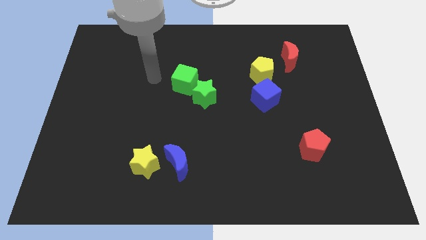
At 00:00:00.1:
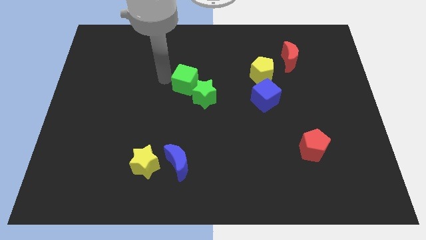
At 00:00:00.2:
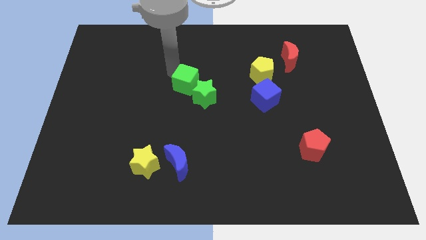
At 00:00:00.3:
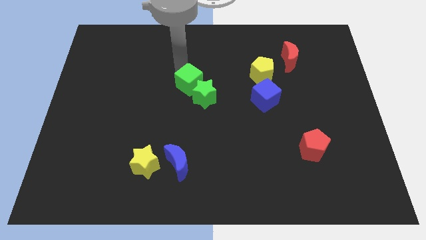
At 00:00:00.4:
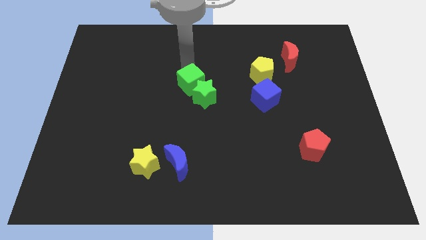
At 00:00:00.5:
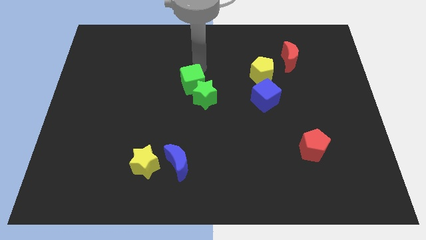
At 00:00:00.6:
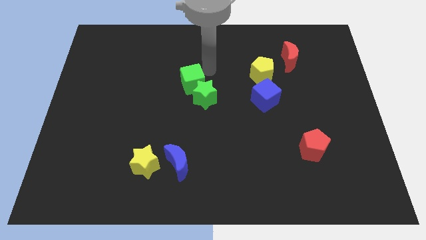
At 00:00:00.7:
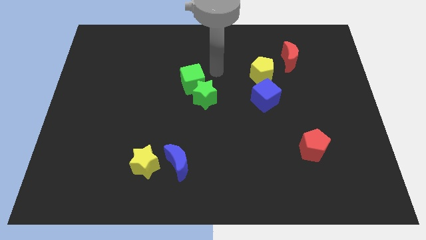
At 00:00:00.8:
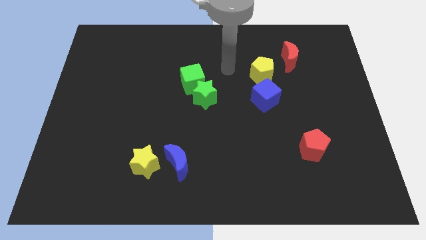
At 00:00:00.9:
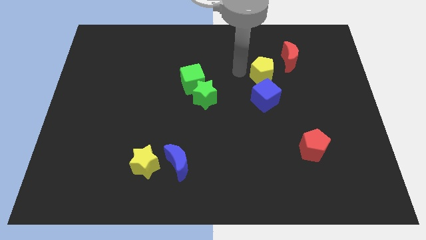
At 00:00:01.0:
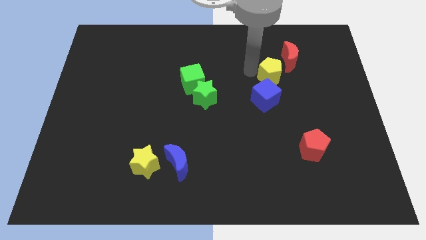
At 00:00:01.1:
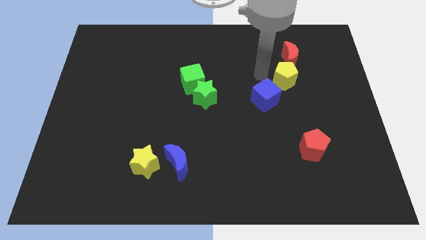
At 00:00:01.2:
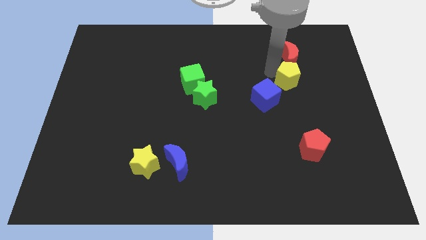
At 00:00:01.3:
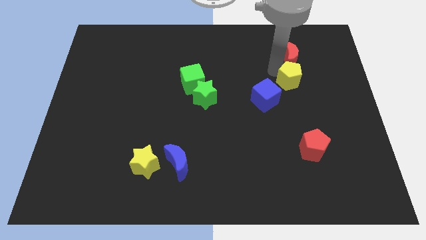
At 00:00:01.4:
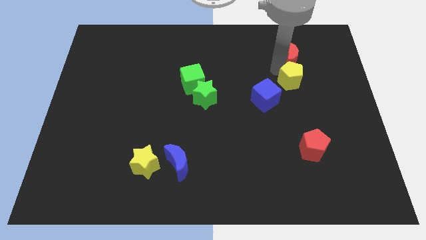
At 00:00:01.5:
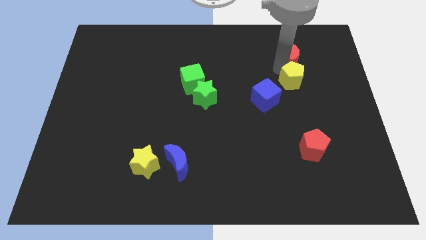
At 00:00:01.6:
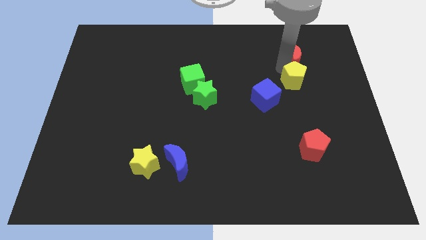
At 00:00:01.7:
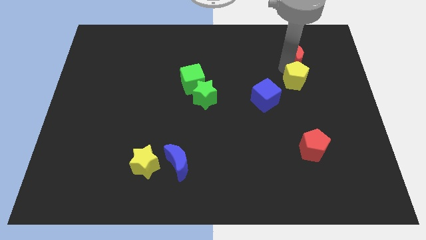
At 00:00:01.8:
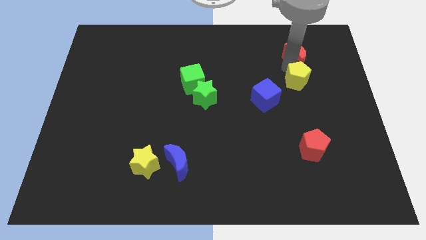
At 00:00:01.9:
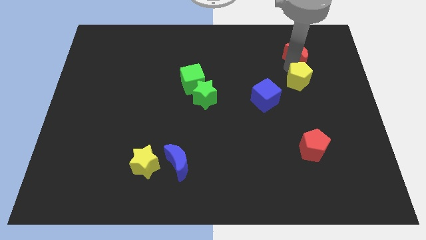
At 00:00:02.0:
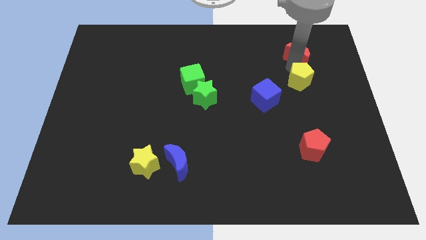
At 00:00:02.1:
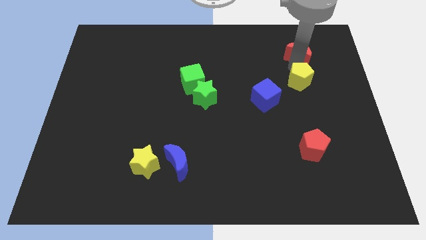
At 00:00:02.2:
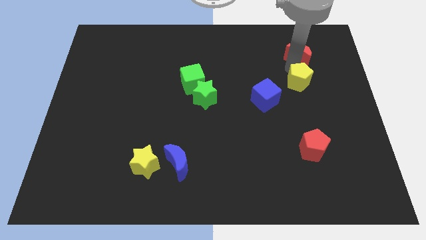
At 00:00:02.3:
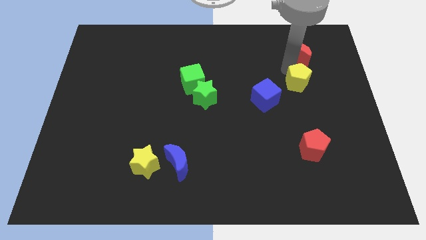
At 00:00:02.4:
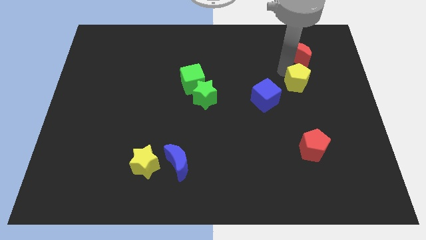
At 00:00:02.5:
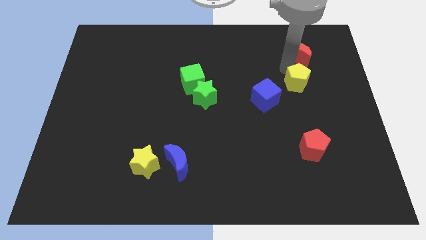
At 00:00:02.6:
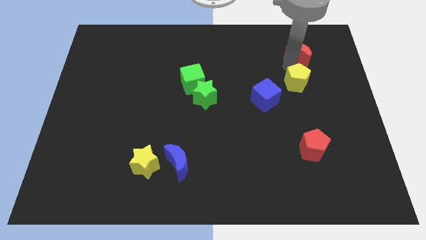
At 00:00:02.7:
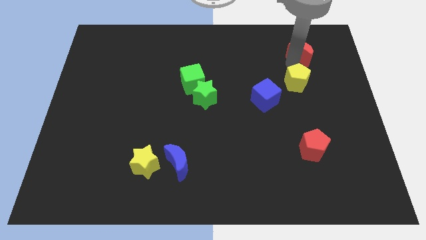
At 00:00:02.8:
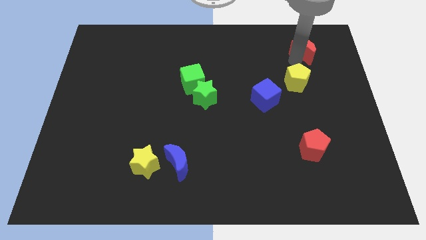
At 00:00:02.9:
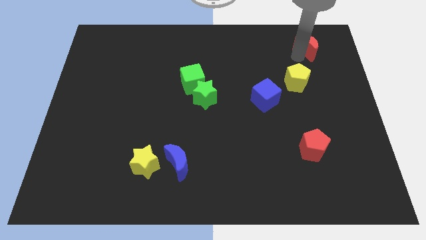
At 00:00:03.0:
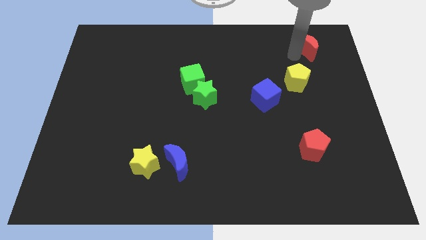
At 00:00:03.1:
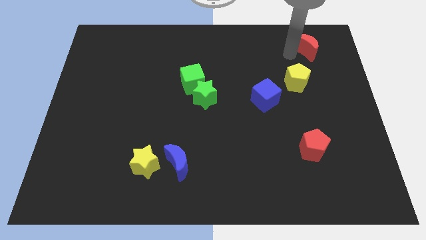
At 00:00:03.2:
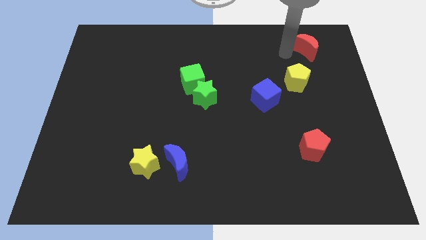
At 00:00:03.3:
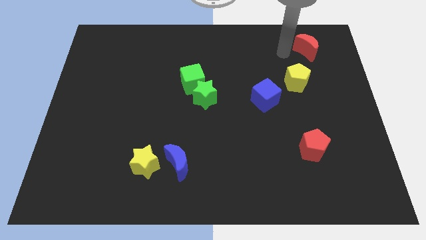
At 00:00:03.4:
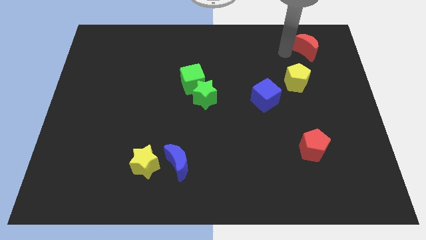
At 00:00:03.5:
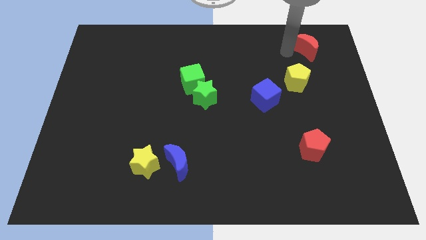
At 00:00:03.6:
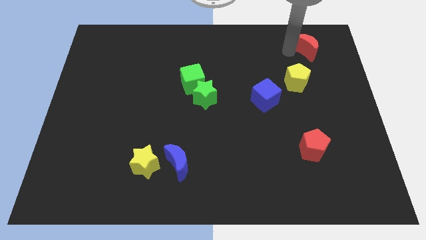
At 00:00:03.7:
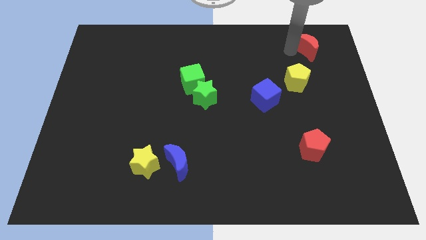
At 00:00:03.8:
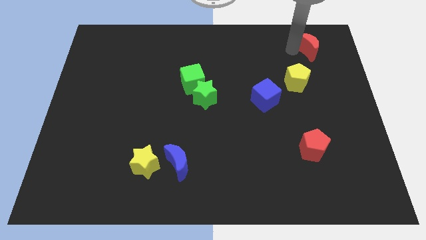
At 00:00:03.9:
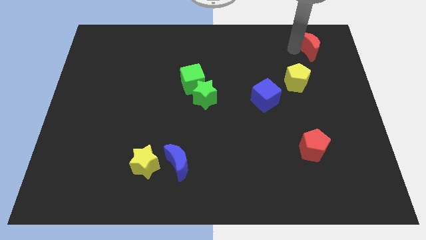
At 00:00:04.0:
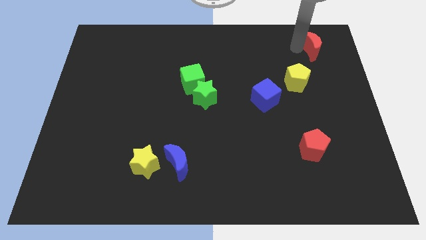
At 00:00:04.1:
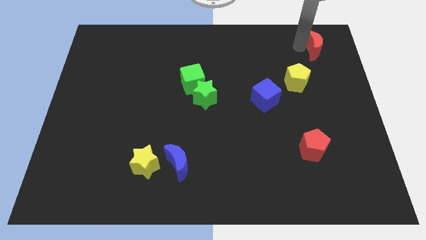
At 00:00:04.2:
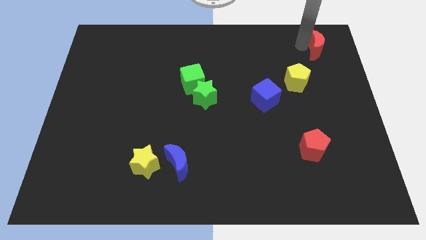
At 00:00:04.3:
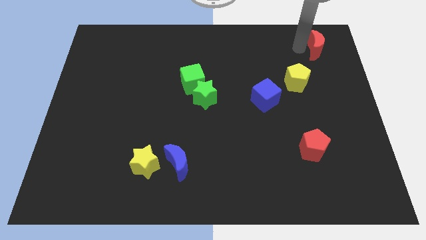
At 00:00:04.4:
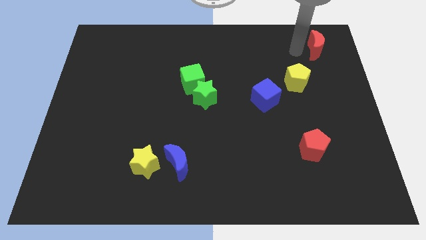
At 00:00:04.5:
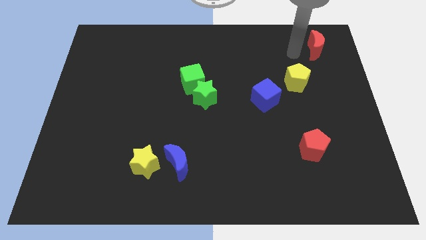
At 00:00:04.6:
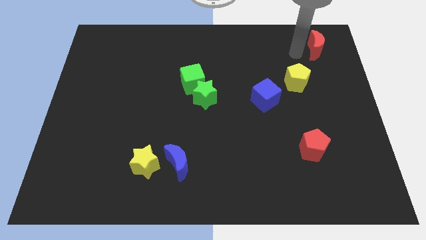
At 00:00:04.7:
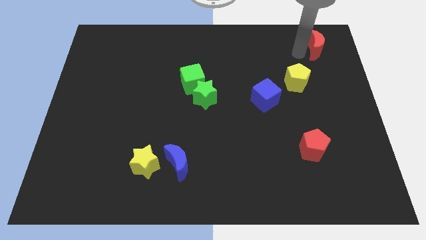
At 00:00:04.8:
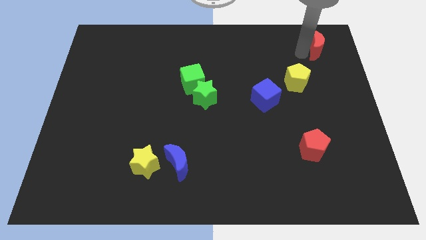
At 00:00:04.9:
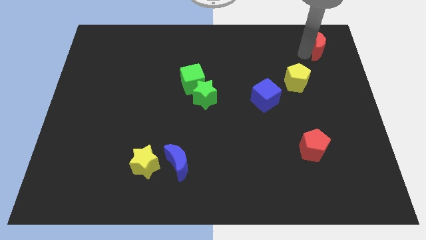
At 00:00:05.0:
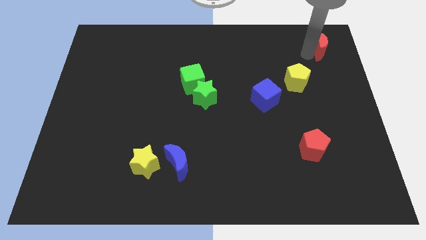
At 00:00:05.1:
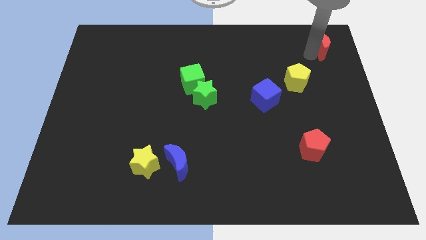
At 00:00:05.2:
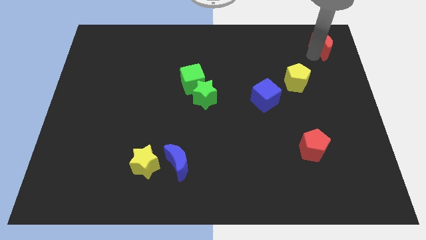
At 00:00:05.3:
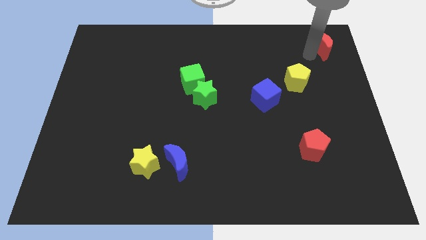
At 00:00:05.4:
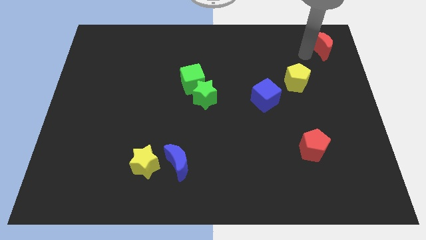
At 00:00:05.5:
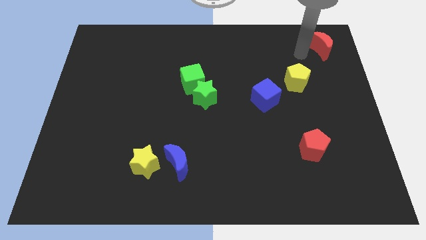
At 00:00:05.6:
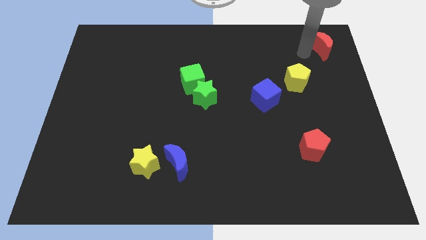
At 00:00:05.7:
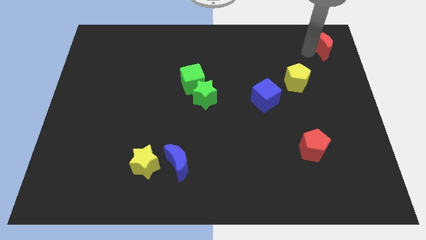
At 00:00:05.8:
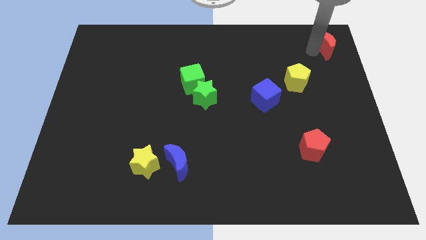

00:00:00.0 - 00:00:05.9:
slide the red moon to the top right
